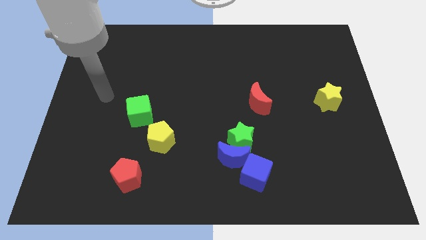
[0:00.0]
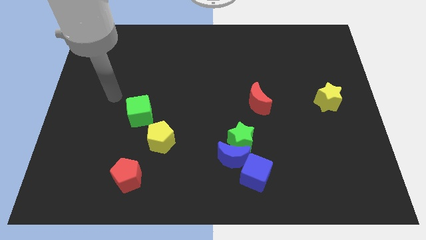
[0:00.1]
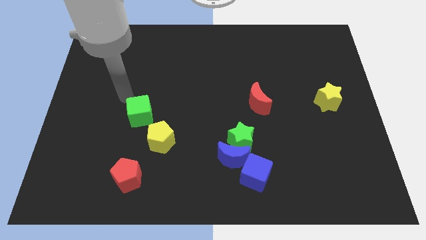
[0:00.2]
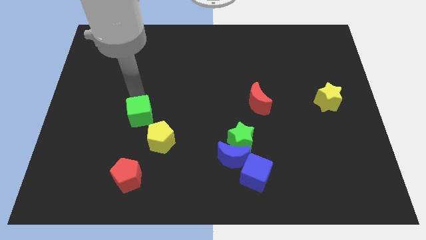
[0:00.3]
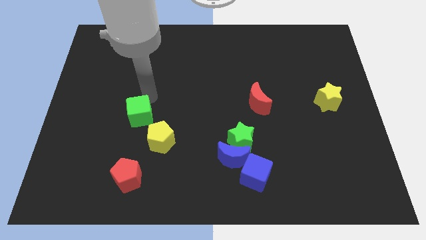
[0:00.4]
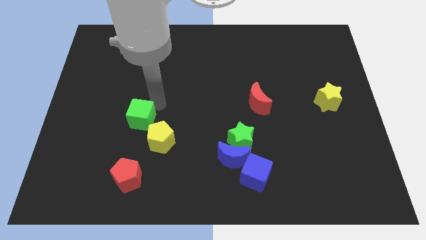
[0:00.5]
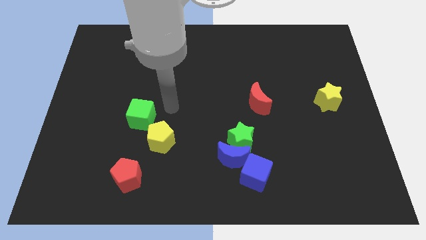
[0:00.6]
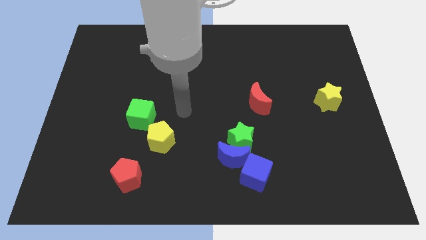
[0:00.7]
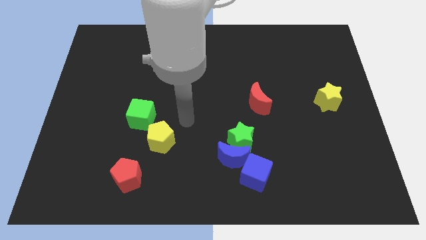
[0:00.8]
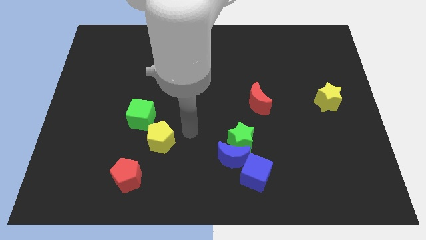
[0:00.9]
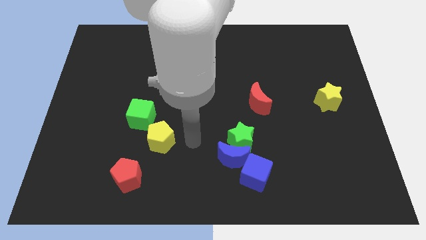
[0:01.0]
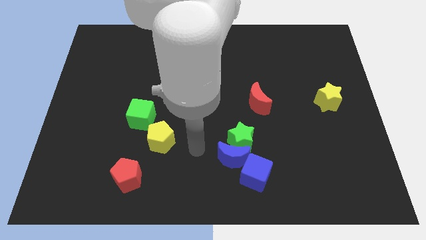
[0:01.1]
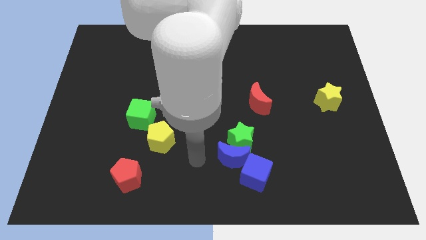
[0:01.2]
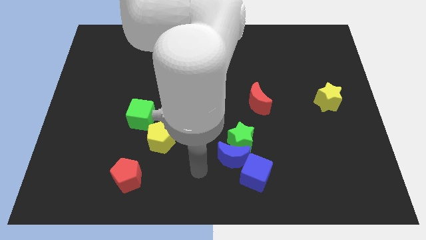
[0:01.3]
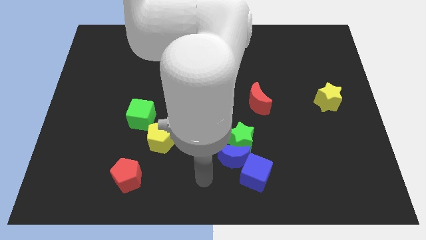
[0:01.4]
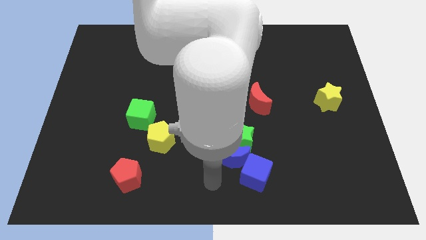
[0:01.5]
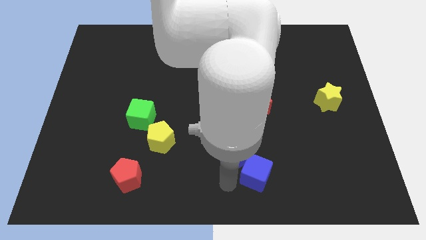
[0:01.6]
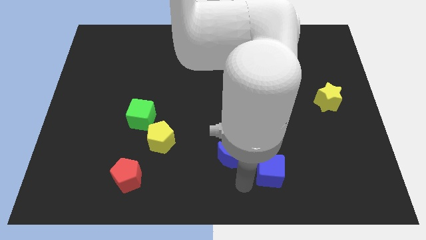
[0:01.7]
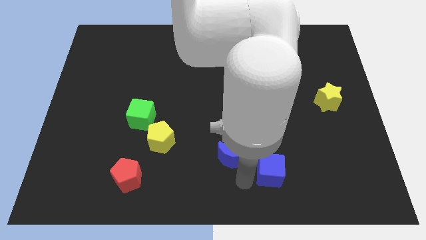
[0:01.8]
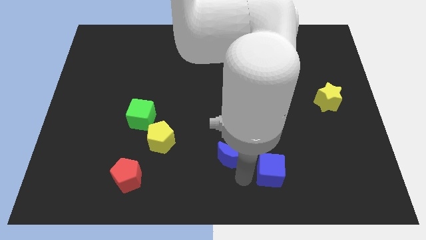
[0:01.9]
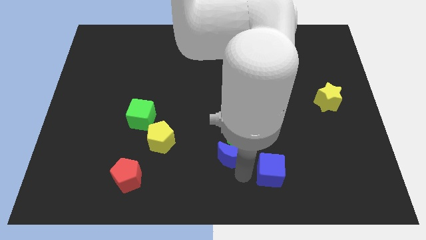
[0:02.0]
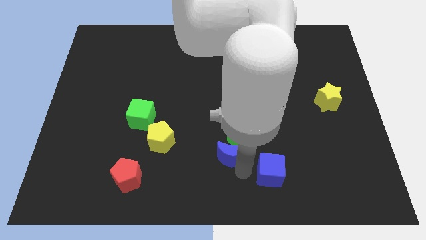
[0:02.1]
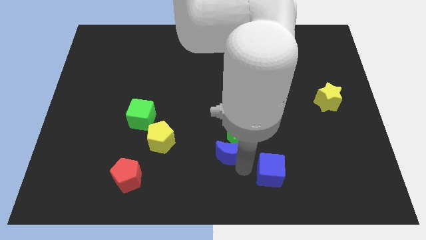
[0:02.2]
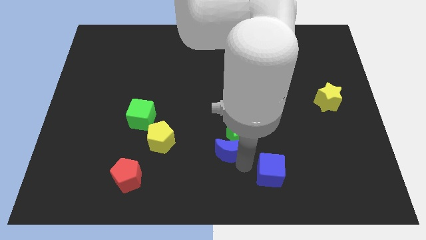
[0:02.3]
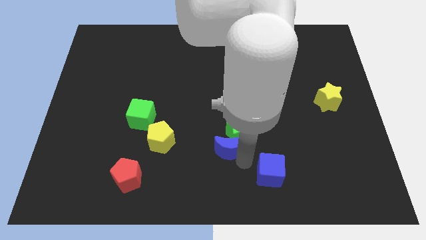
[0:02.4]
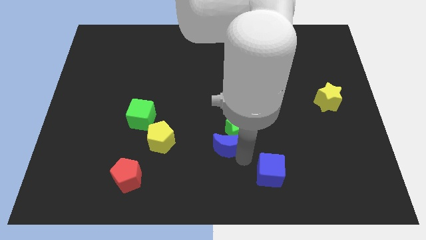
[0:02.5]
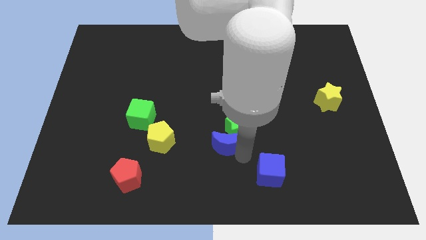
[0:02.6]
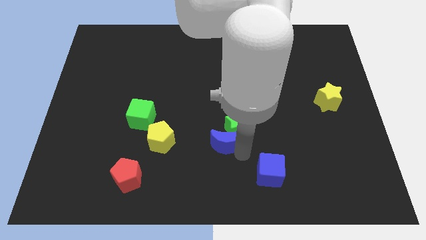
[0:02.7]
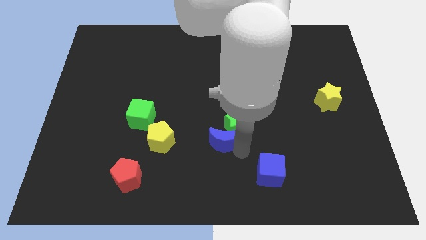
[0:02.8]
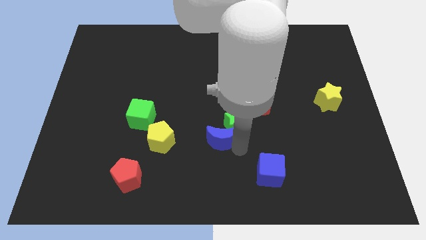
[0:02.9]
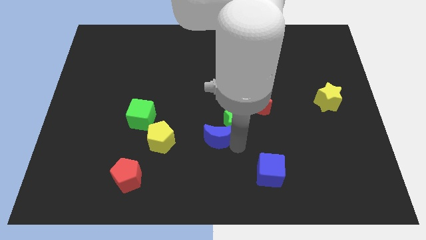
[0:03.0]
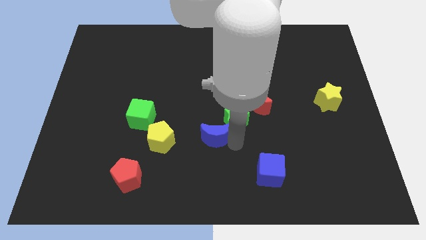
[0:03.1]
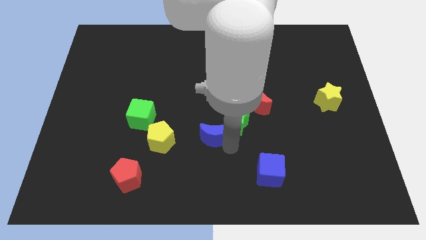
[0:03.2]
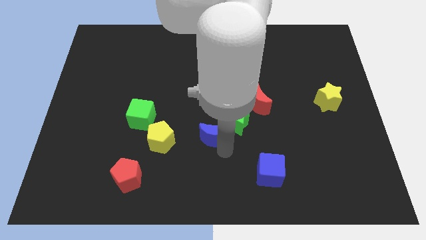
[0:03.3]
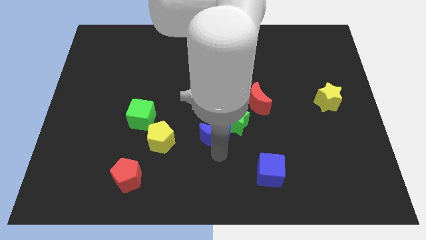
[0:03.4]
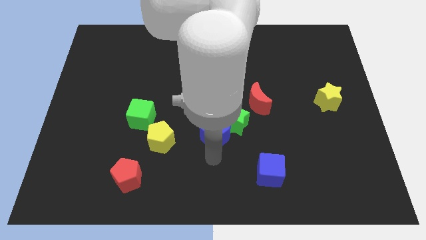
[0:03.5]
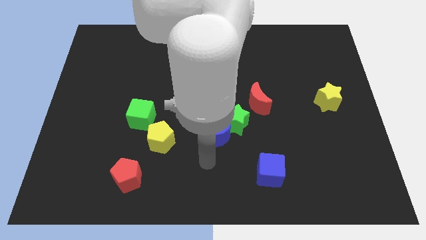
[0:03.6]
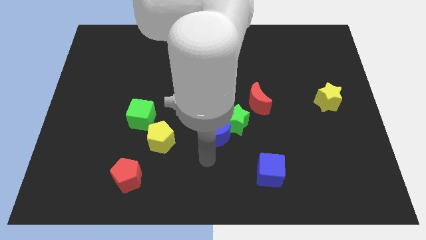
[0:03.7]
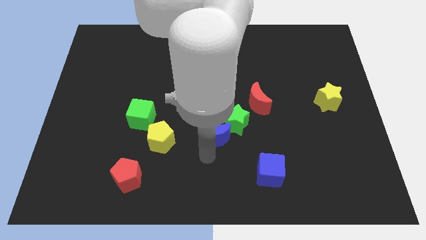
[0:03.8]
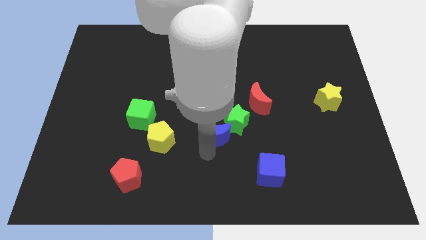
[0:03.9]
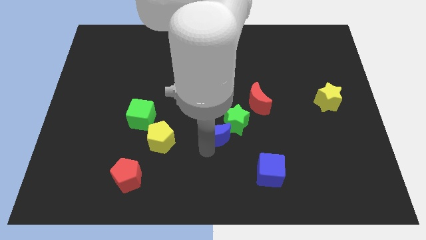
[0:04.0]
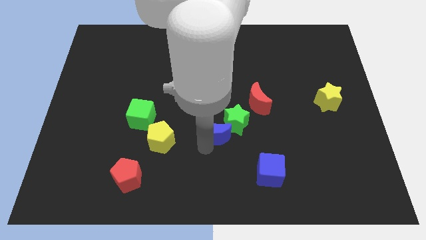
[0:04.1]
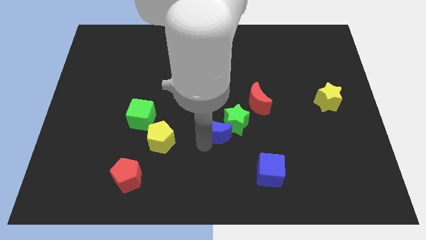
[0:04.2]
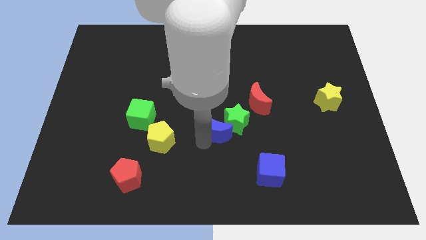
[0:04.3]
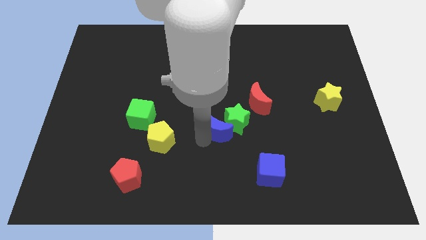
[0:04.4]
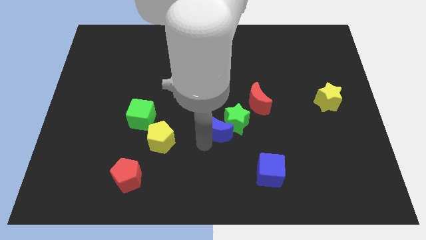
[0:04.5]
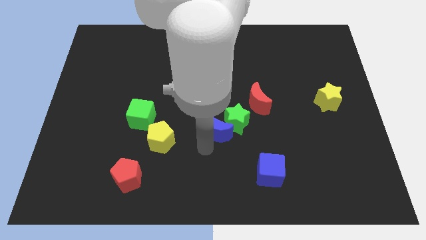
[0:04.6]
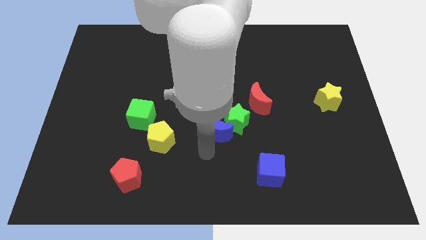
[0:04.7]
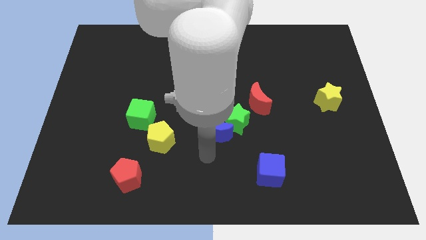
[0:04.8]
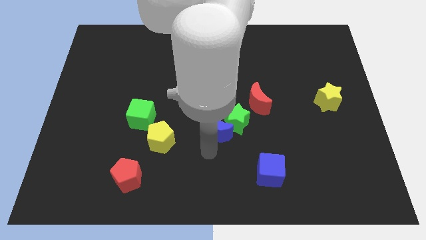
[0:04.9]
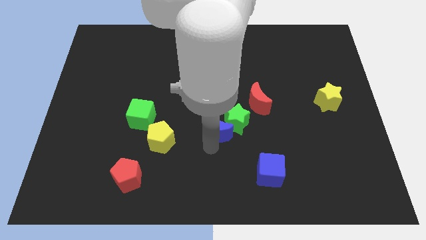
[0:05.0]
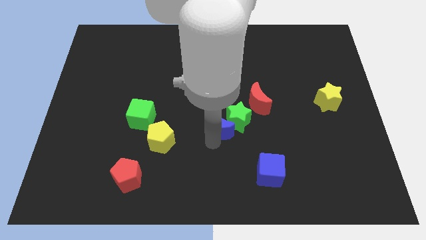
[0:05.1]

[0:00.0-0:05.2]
move the blue moon a bit up

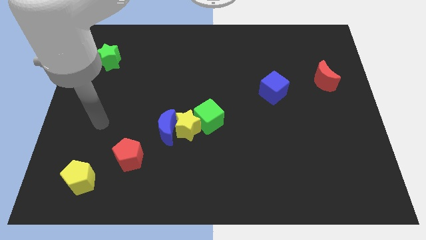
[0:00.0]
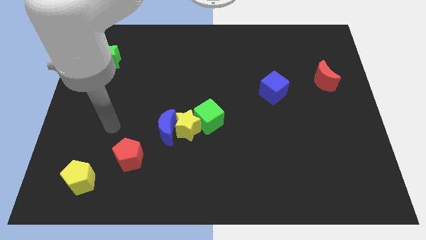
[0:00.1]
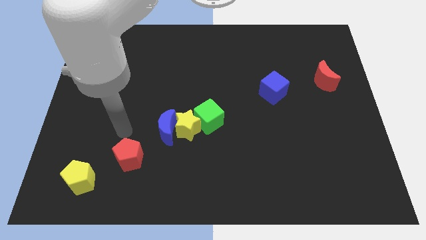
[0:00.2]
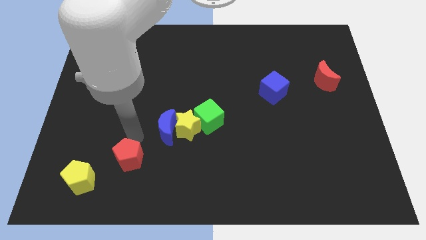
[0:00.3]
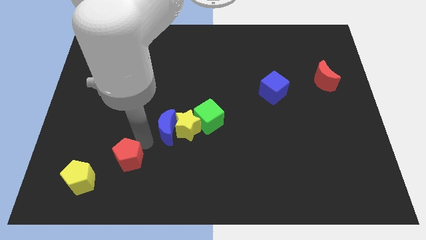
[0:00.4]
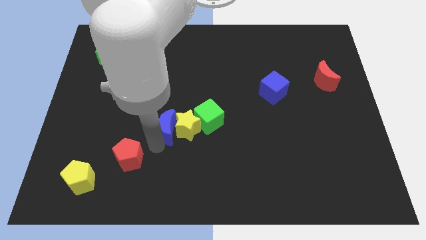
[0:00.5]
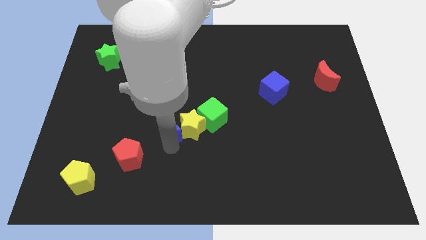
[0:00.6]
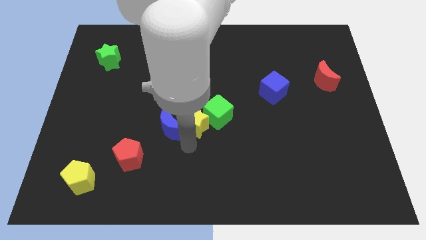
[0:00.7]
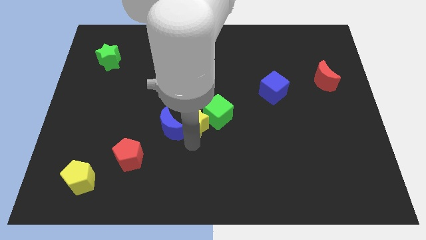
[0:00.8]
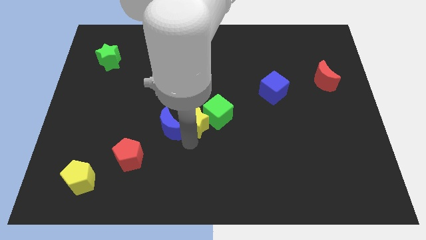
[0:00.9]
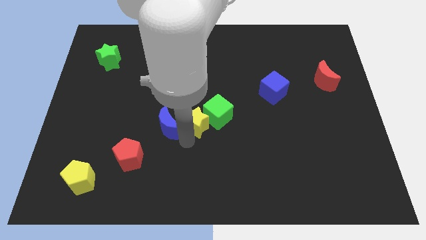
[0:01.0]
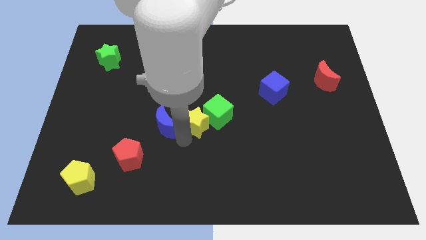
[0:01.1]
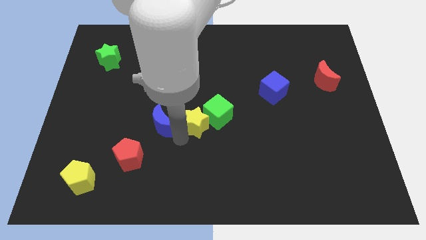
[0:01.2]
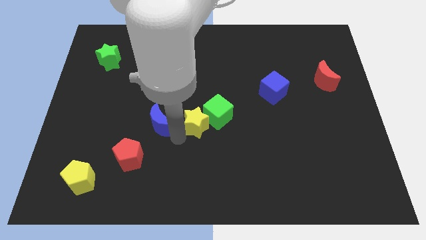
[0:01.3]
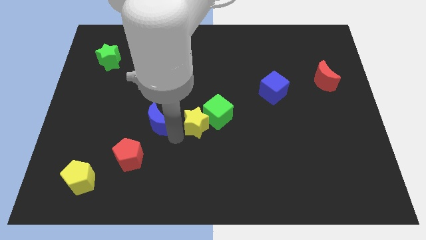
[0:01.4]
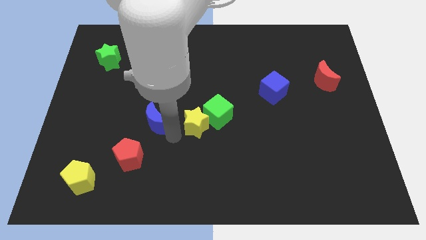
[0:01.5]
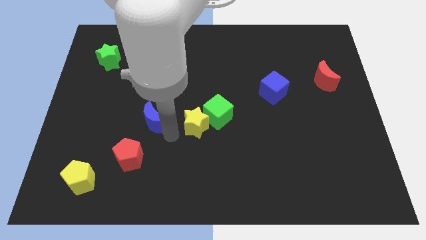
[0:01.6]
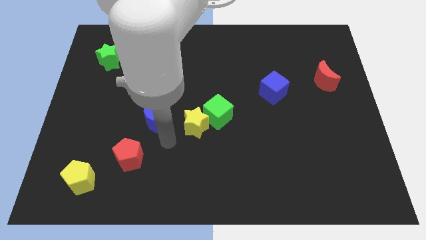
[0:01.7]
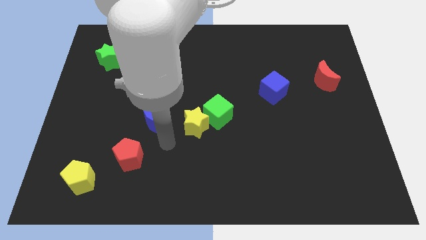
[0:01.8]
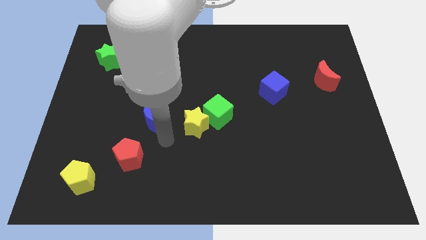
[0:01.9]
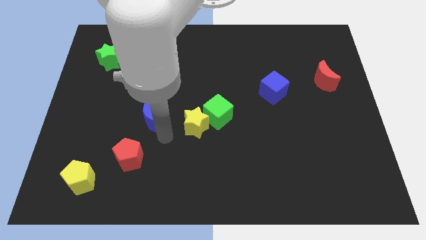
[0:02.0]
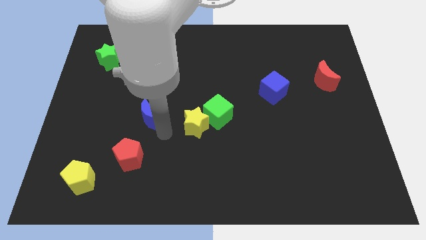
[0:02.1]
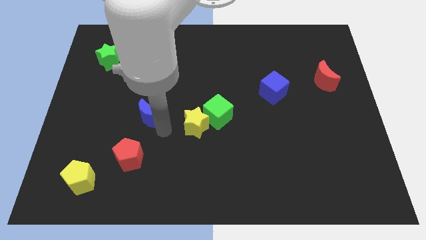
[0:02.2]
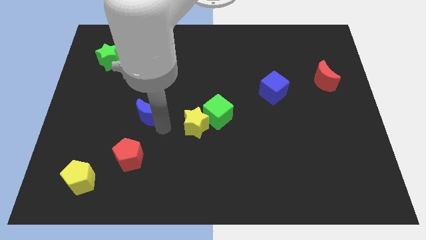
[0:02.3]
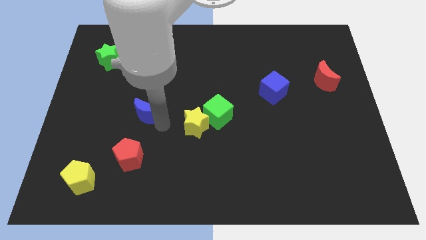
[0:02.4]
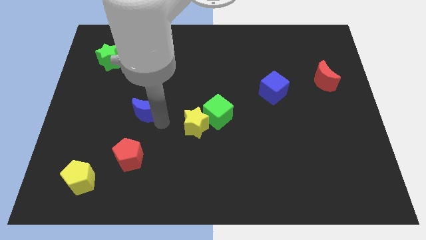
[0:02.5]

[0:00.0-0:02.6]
push the blue moon upwards and to the left a little
